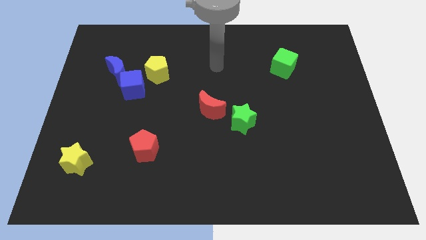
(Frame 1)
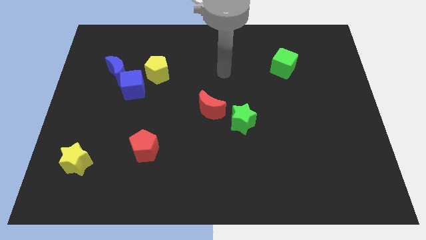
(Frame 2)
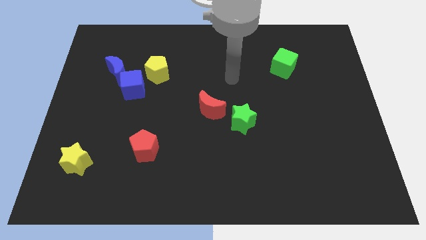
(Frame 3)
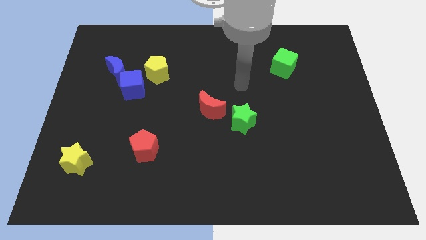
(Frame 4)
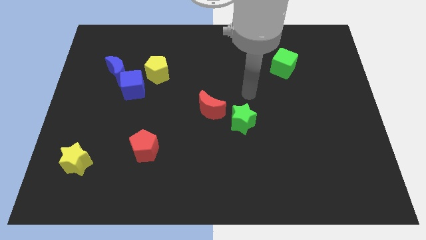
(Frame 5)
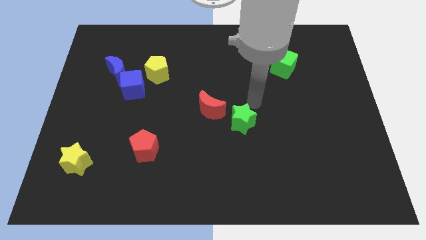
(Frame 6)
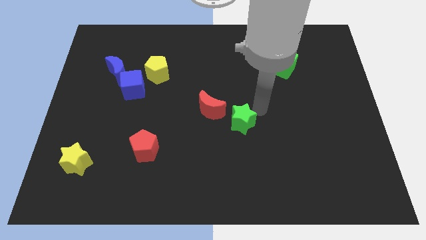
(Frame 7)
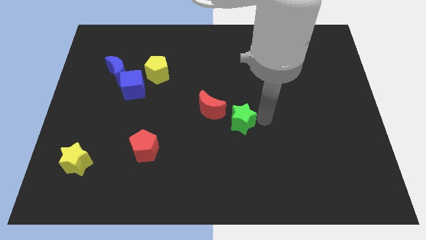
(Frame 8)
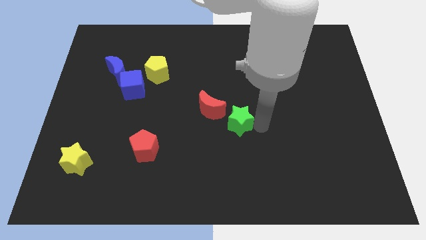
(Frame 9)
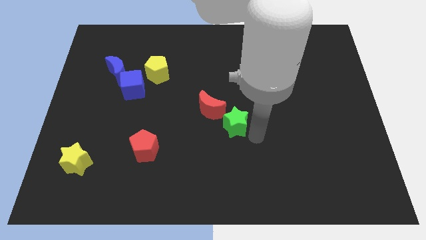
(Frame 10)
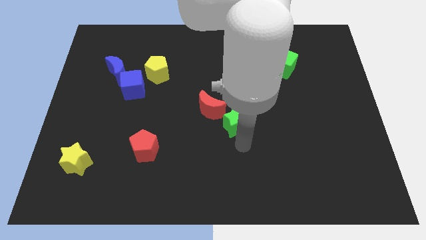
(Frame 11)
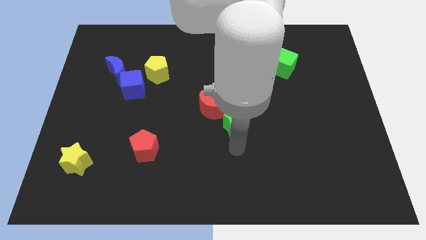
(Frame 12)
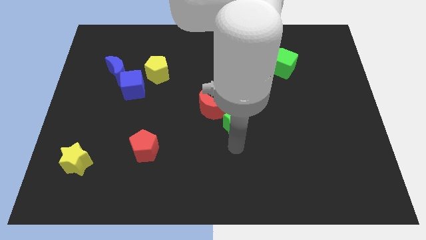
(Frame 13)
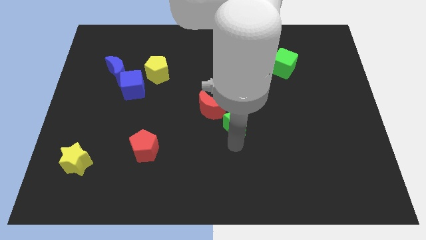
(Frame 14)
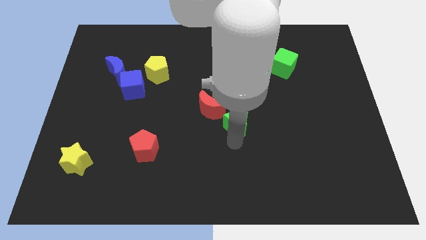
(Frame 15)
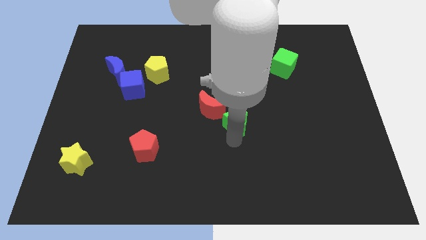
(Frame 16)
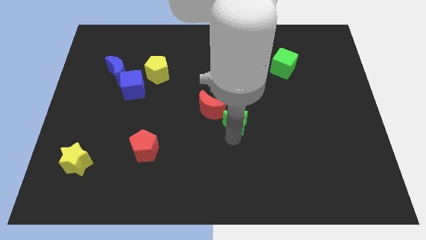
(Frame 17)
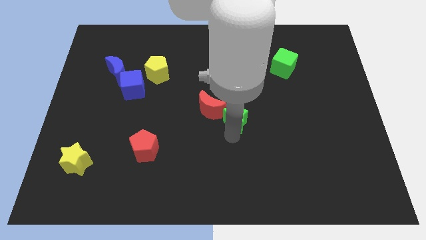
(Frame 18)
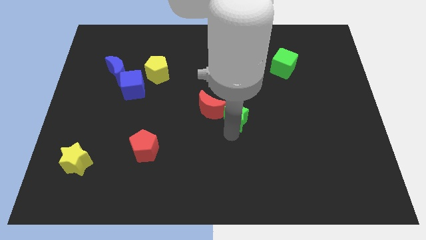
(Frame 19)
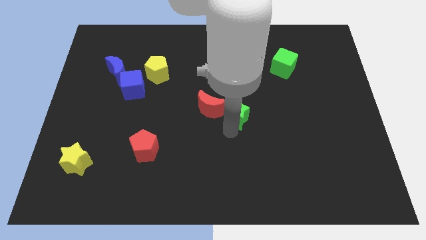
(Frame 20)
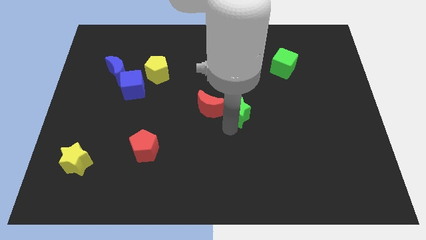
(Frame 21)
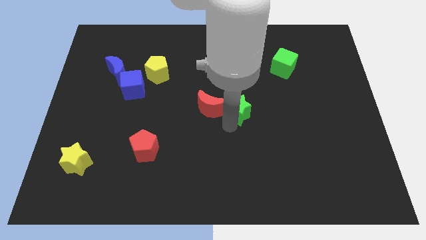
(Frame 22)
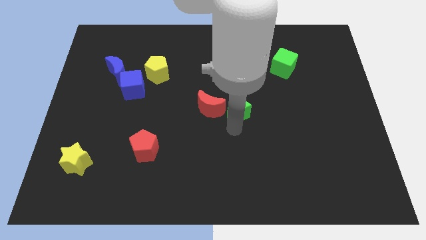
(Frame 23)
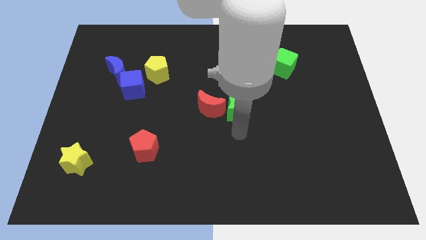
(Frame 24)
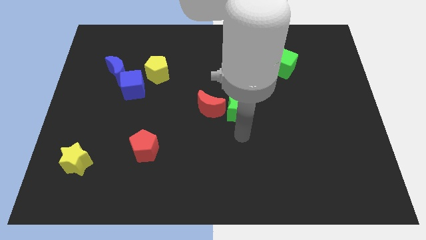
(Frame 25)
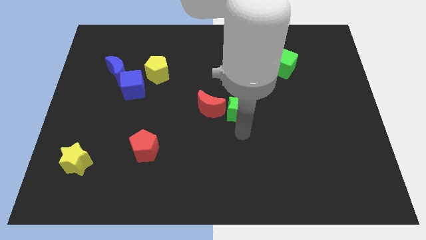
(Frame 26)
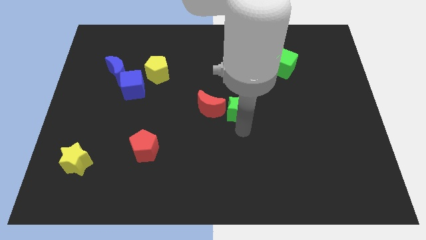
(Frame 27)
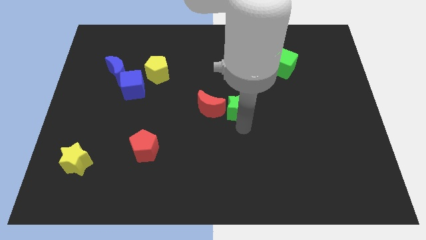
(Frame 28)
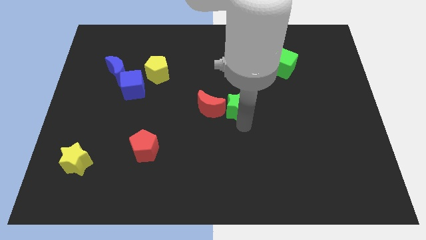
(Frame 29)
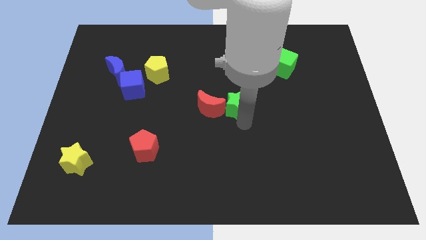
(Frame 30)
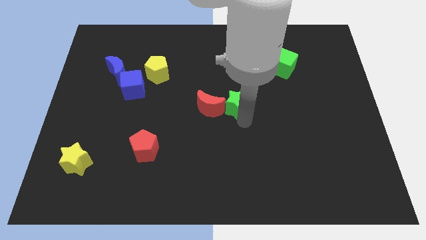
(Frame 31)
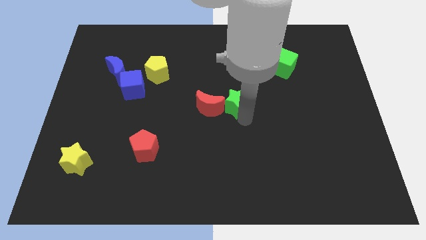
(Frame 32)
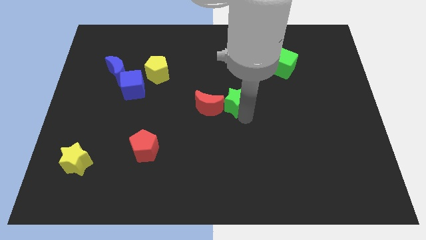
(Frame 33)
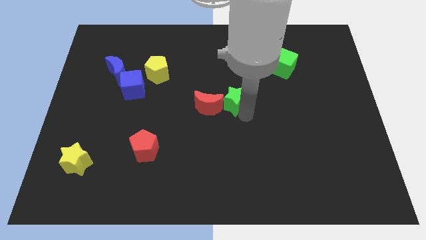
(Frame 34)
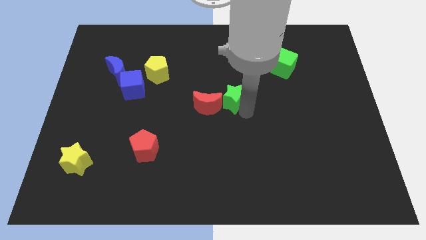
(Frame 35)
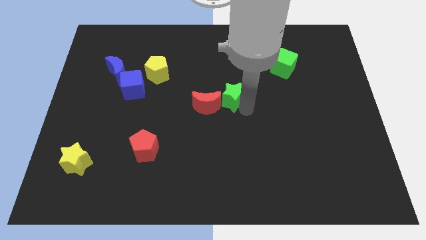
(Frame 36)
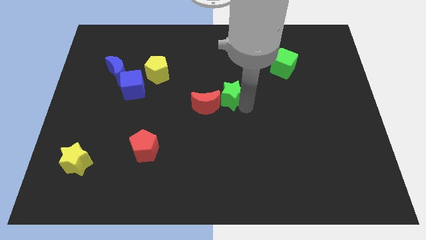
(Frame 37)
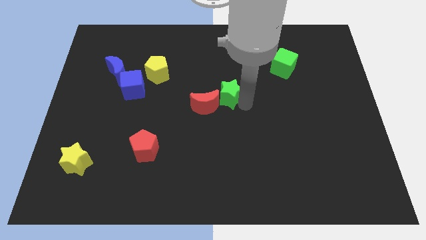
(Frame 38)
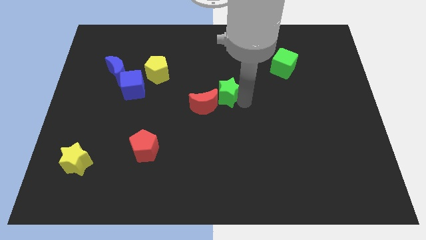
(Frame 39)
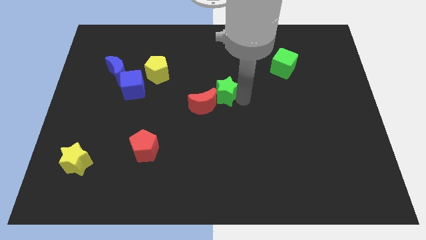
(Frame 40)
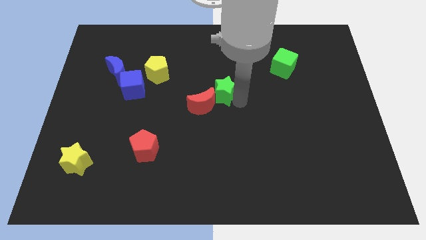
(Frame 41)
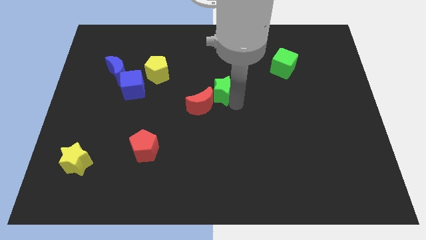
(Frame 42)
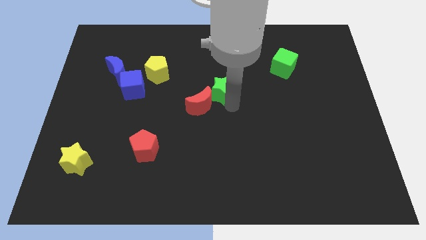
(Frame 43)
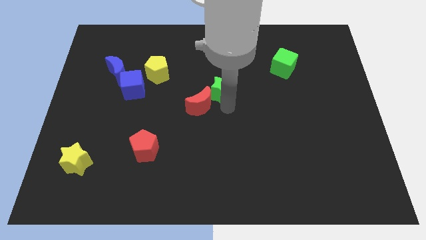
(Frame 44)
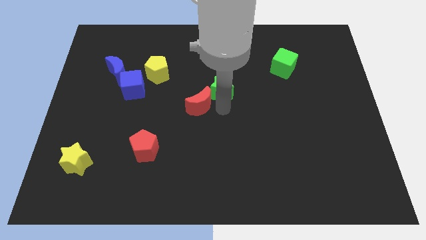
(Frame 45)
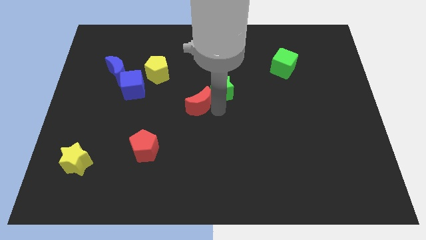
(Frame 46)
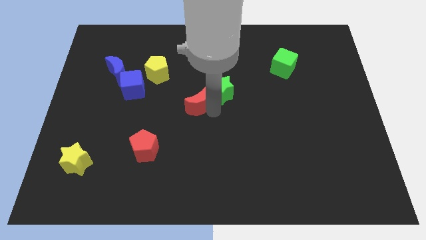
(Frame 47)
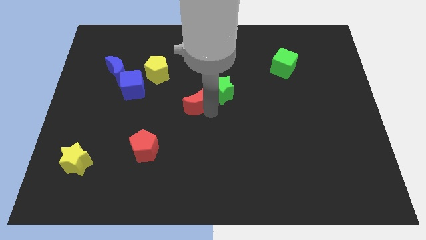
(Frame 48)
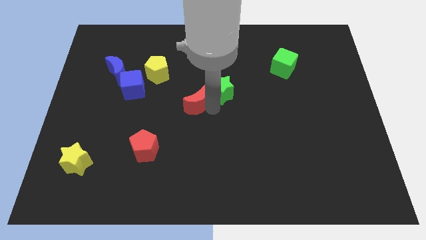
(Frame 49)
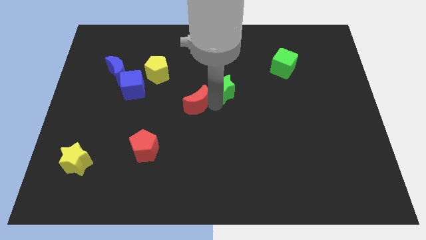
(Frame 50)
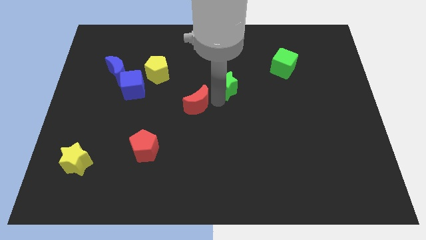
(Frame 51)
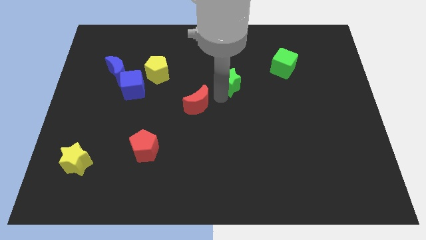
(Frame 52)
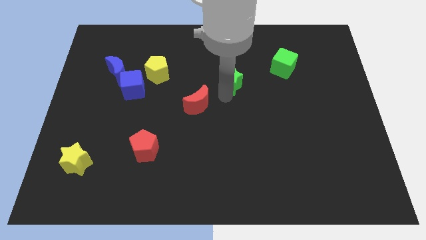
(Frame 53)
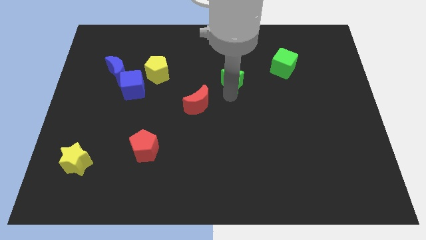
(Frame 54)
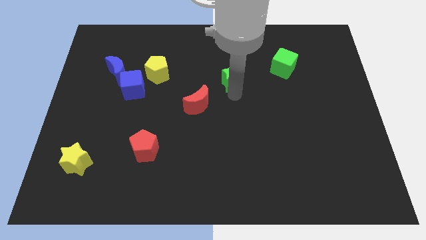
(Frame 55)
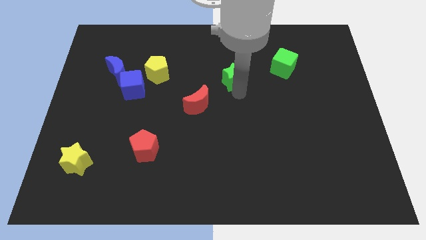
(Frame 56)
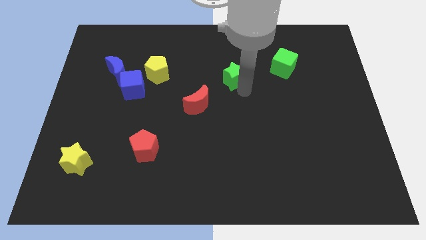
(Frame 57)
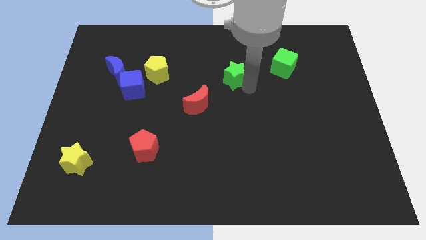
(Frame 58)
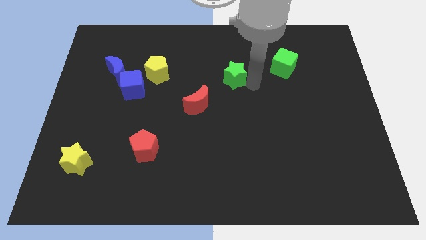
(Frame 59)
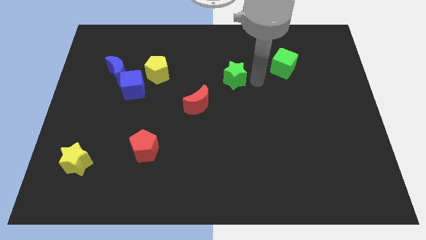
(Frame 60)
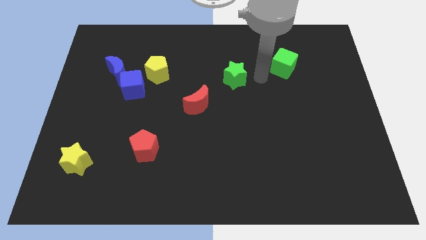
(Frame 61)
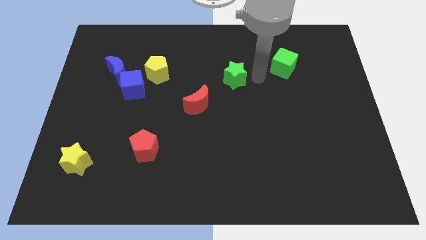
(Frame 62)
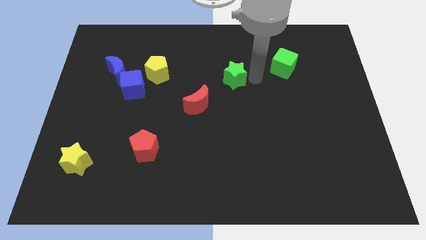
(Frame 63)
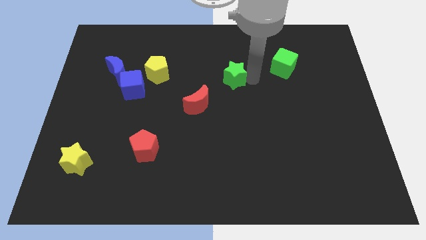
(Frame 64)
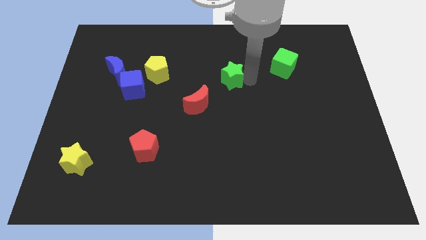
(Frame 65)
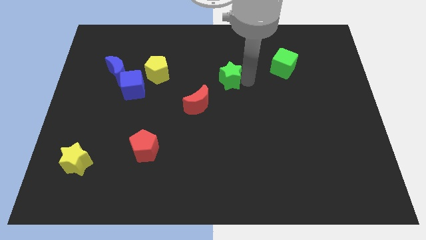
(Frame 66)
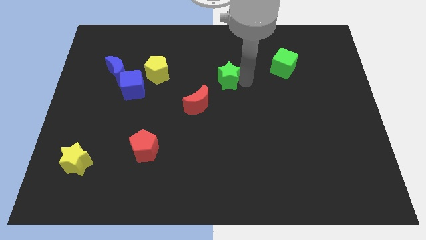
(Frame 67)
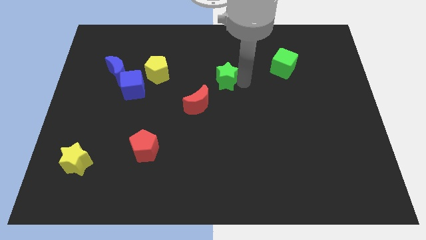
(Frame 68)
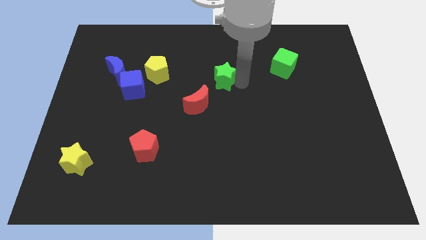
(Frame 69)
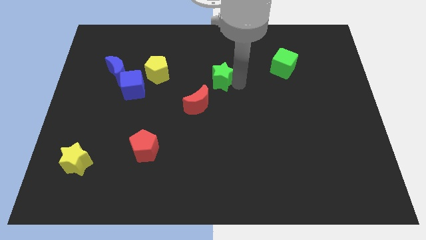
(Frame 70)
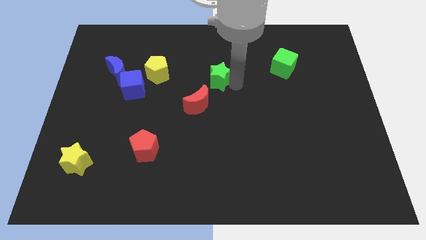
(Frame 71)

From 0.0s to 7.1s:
move the green star right of the yellow pentagon
